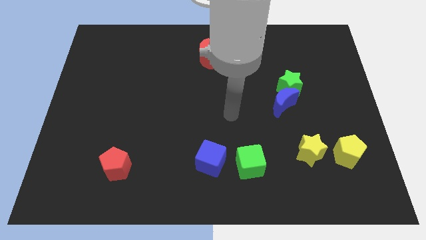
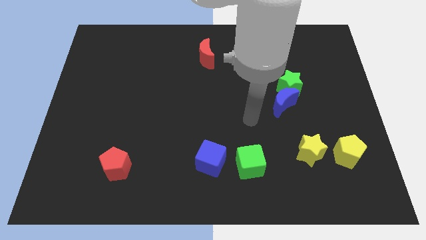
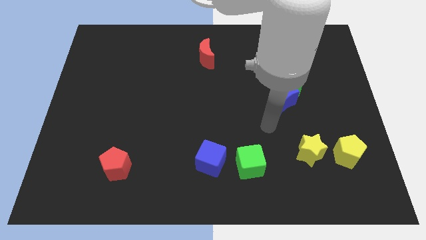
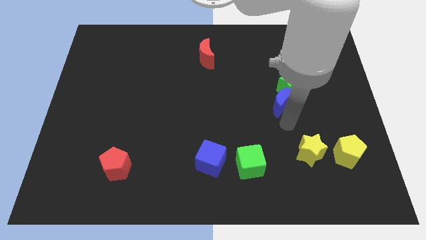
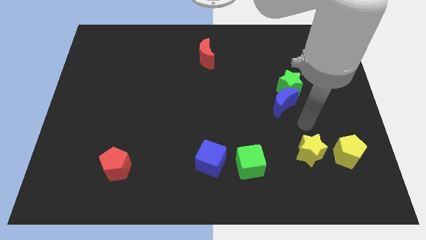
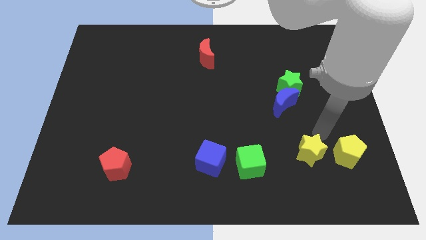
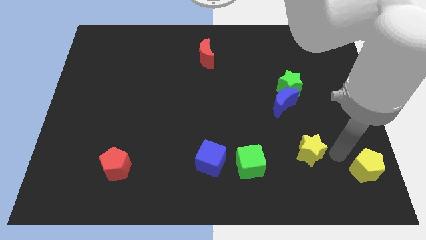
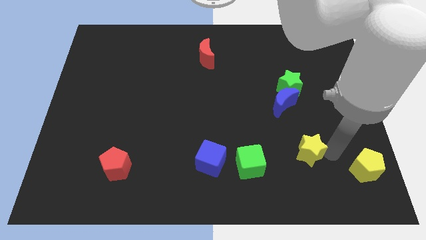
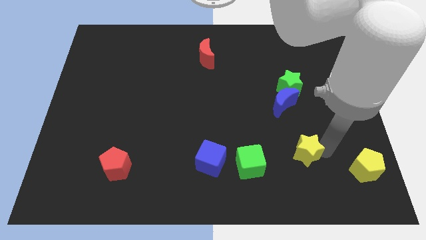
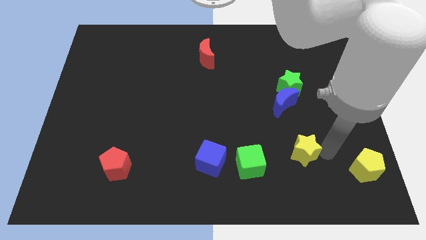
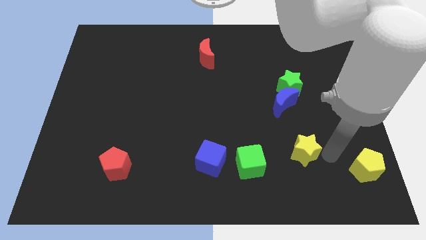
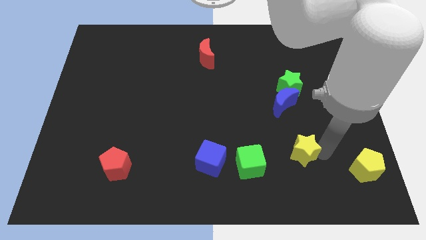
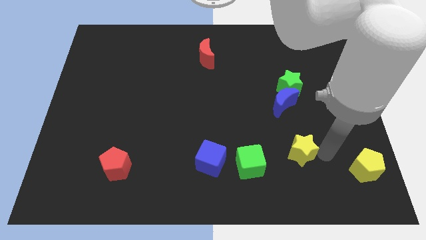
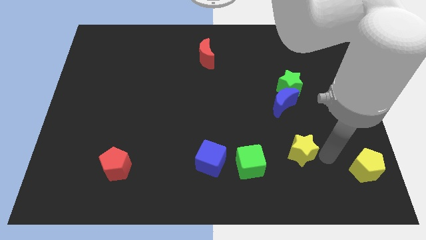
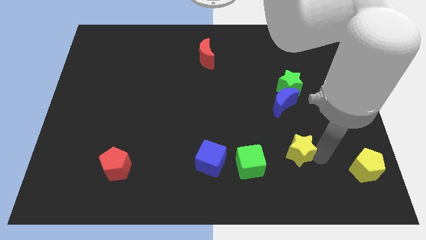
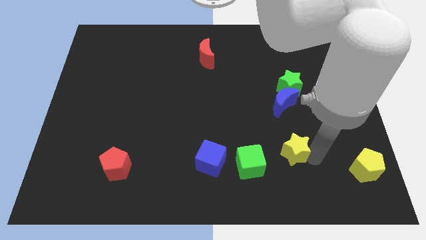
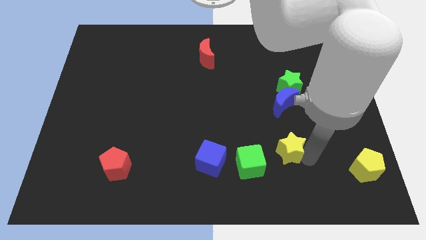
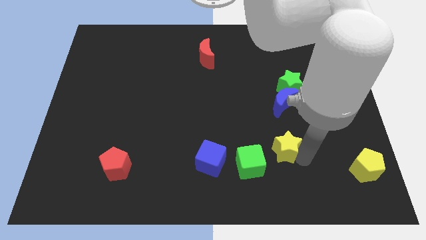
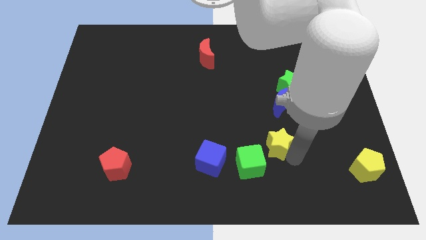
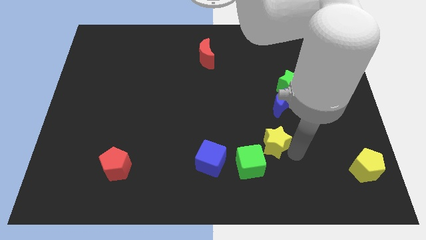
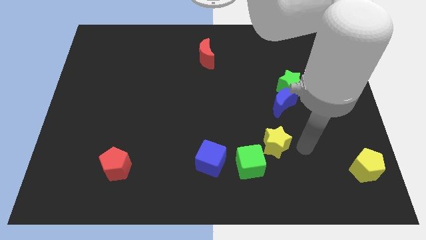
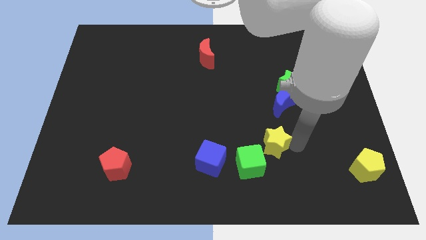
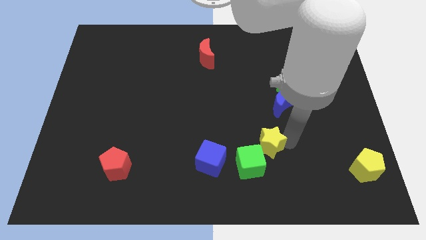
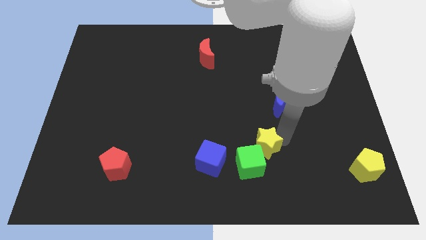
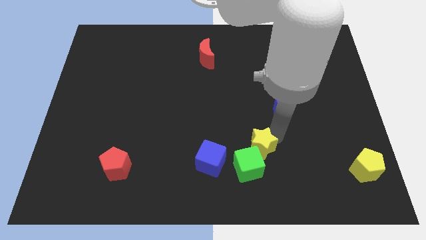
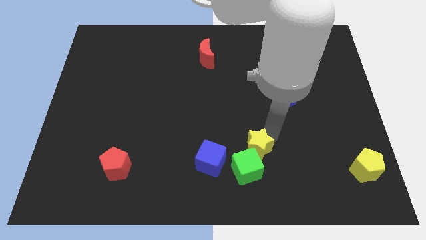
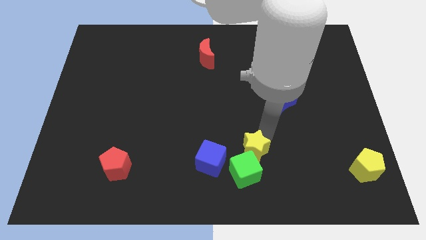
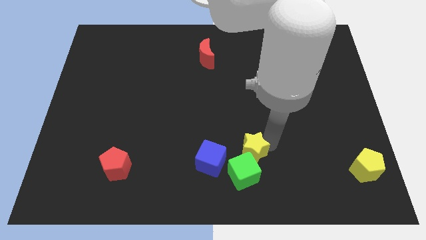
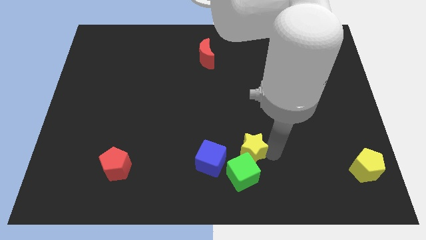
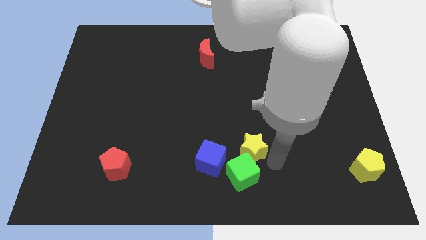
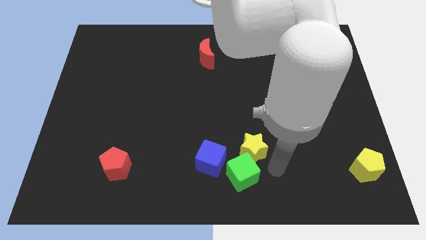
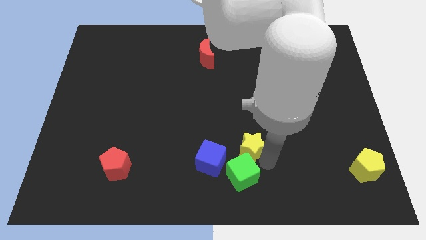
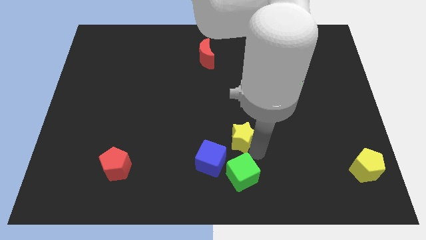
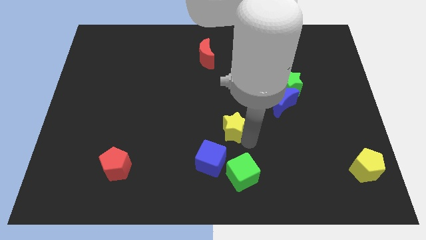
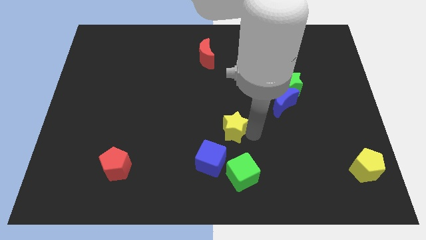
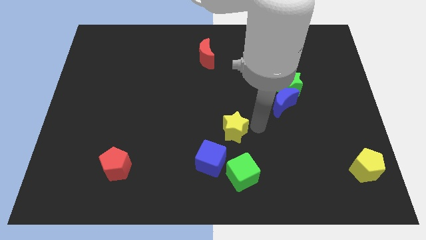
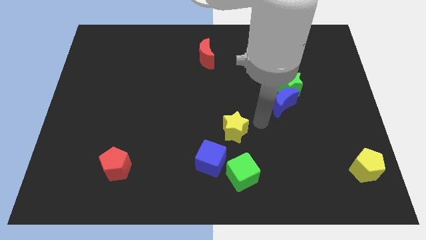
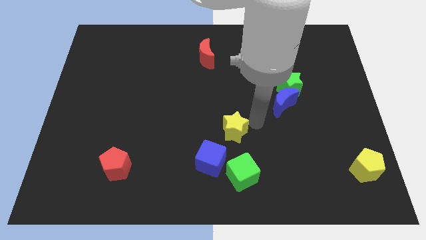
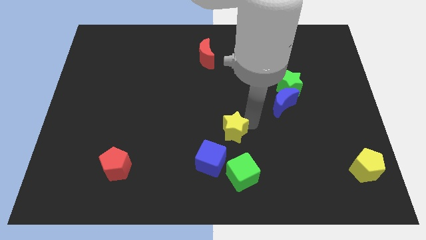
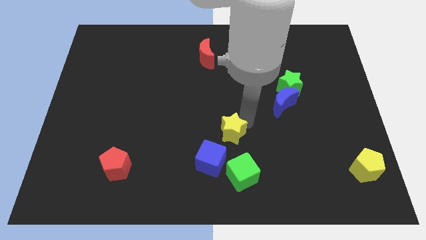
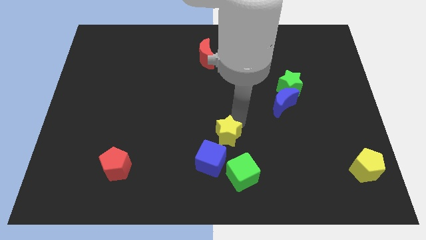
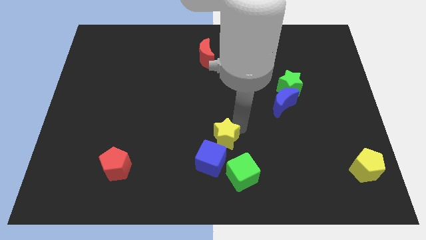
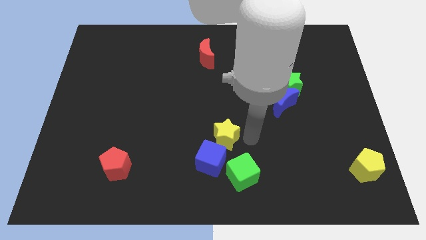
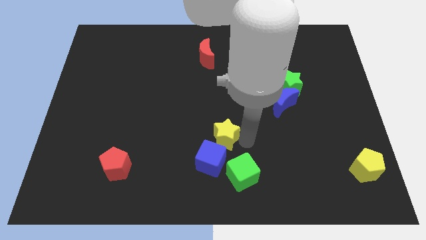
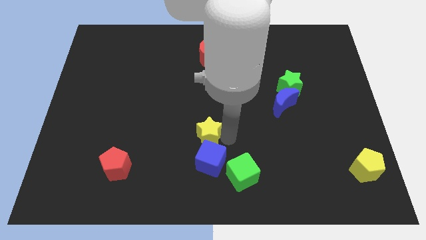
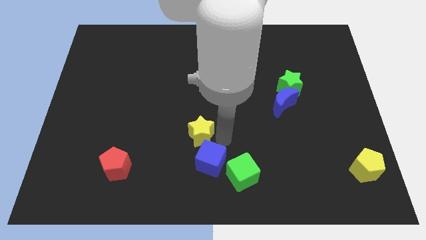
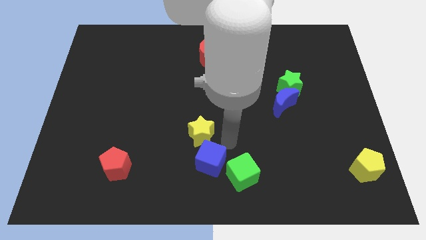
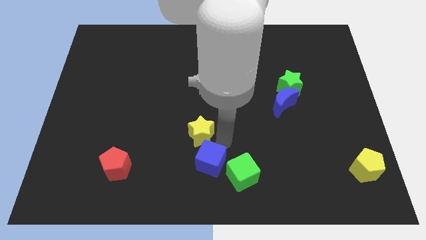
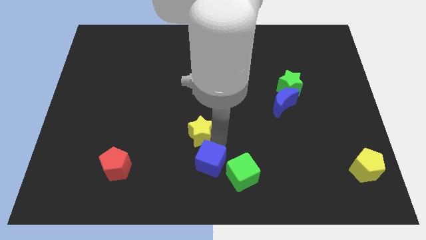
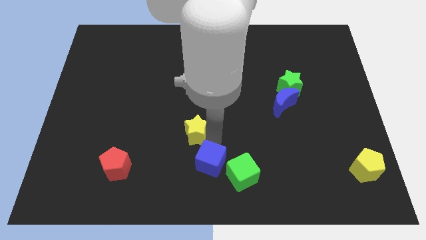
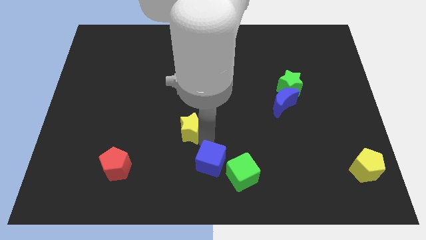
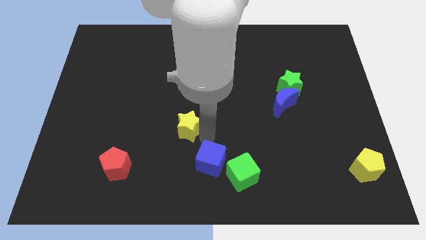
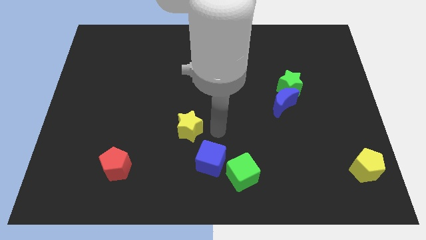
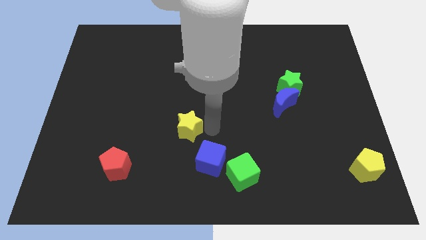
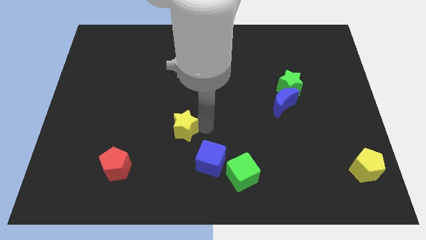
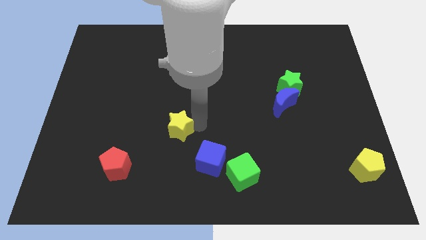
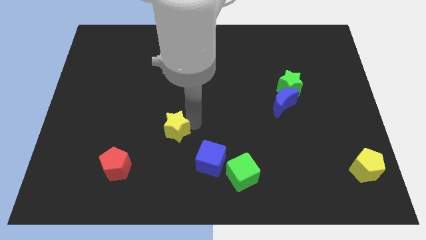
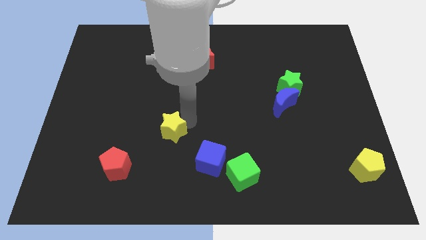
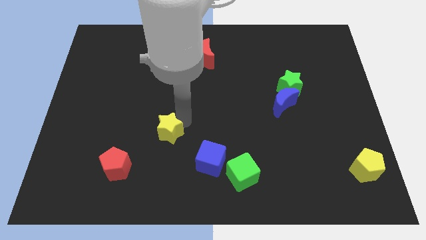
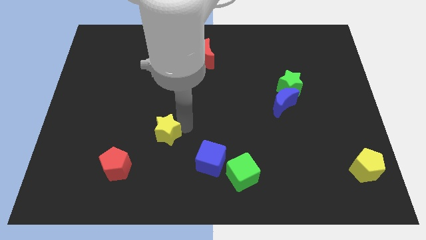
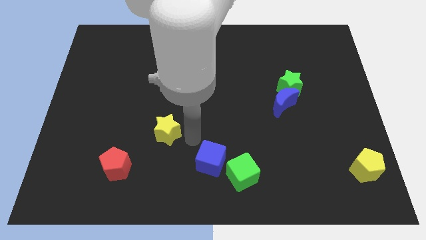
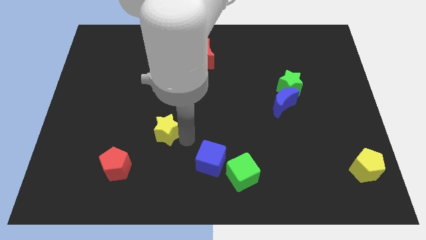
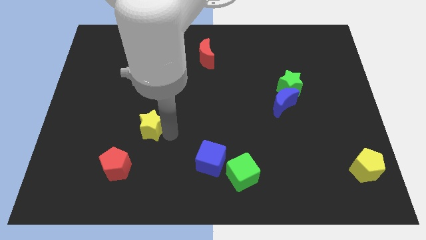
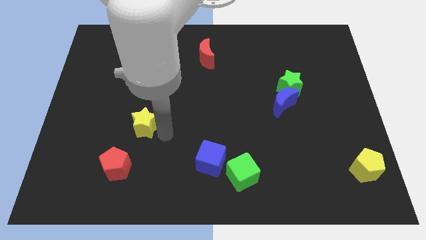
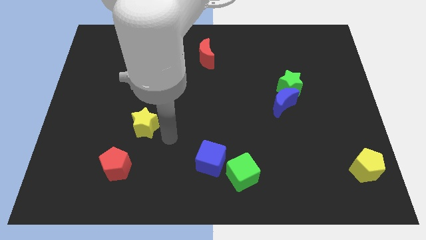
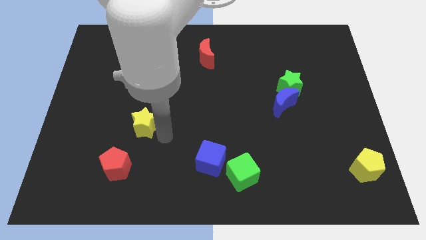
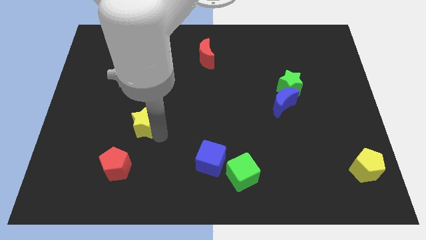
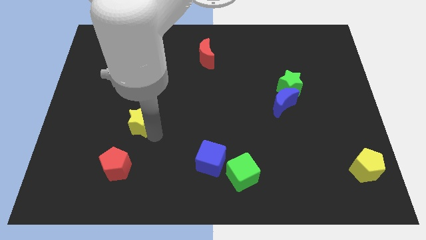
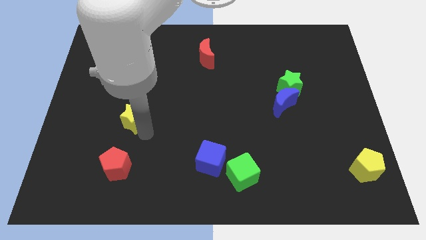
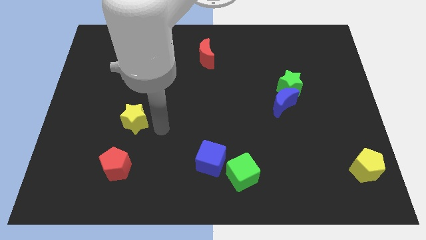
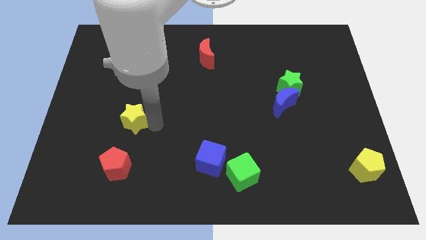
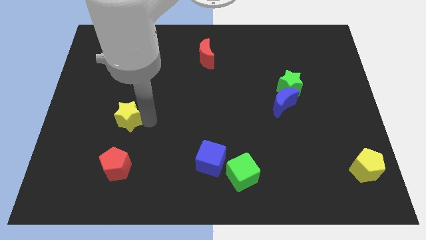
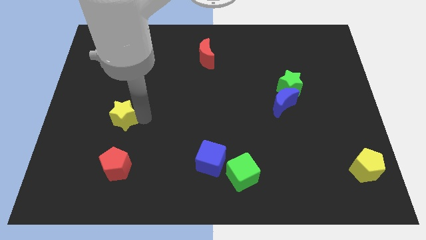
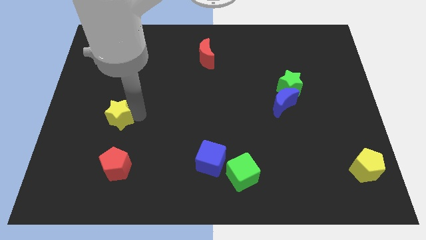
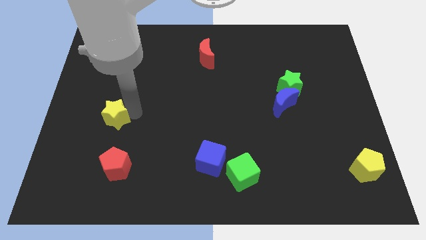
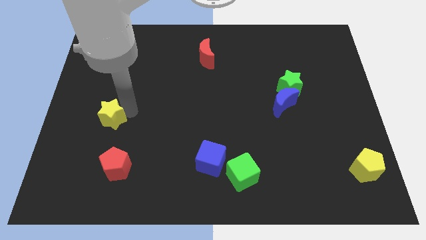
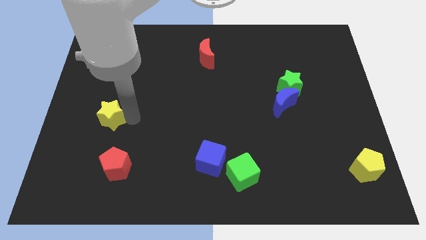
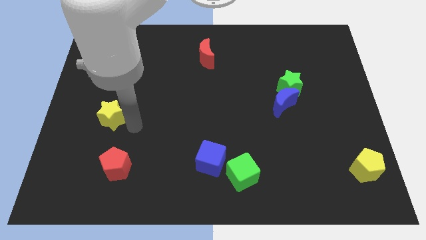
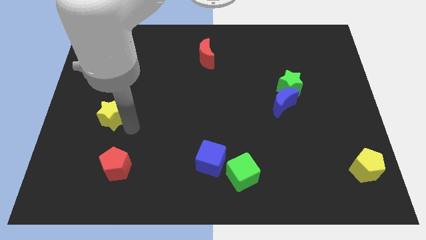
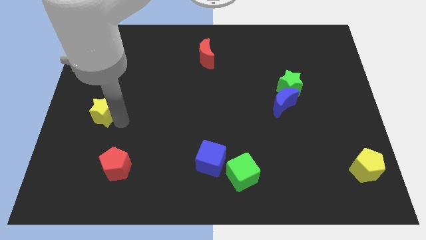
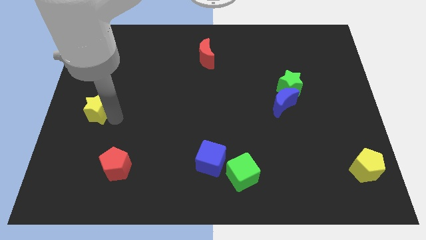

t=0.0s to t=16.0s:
push the yellow star to the left side
